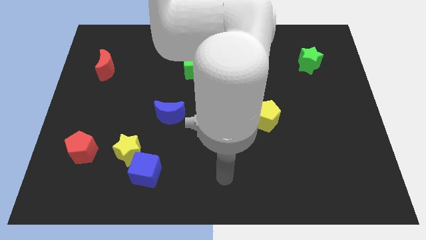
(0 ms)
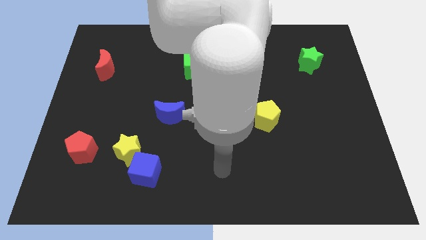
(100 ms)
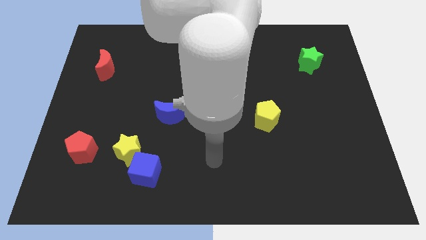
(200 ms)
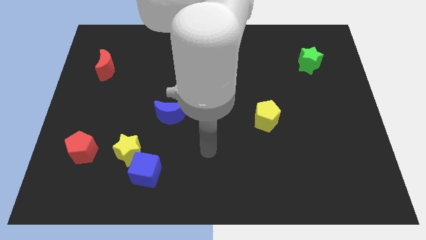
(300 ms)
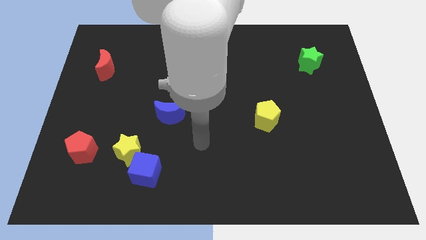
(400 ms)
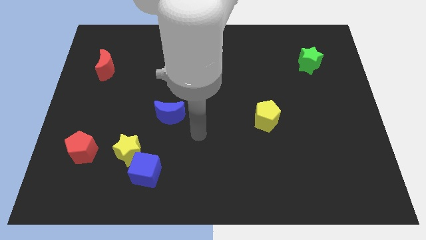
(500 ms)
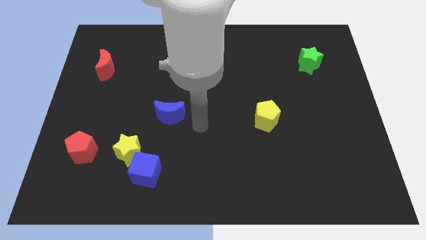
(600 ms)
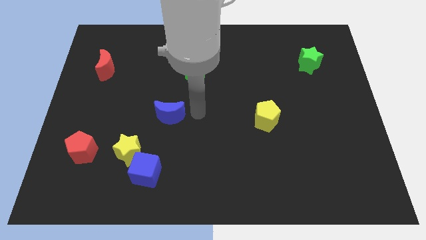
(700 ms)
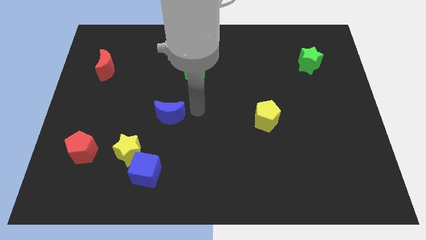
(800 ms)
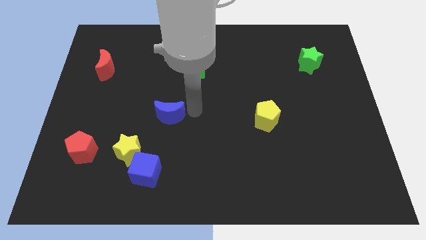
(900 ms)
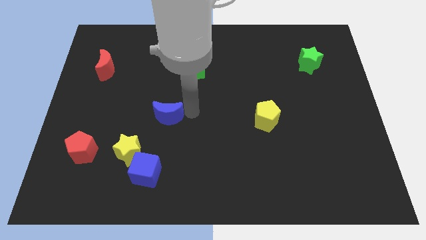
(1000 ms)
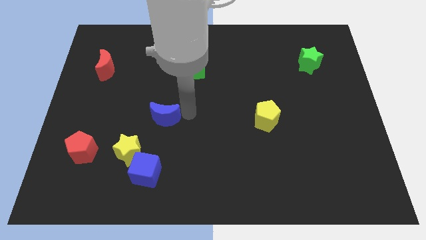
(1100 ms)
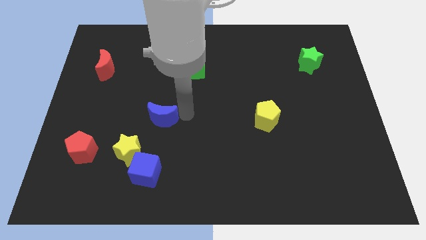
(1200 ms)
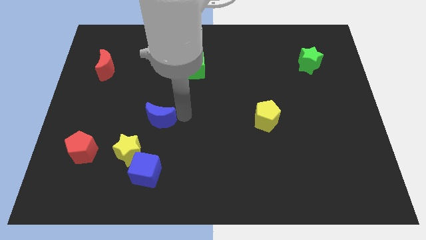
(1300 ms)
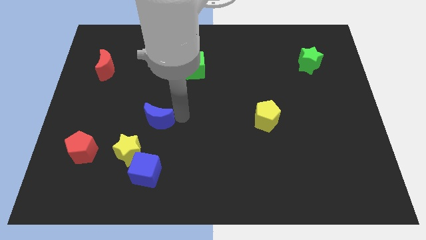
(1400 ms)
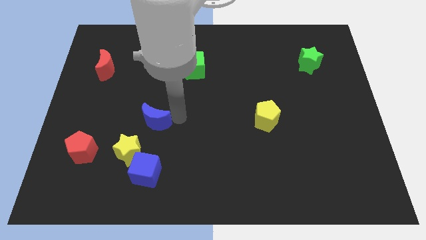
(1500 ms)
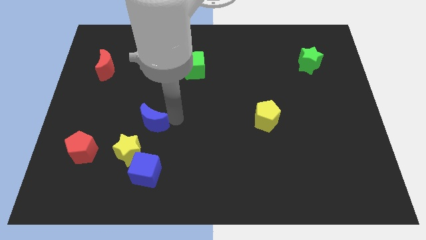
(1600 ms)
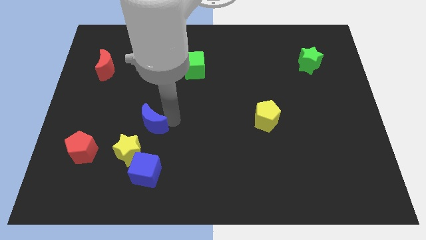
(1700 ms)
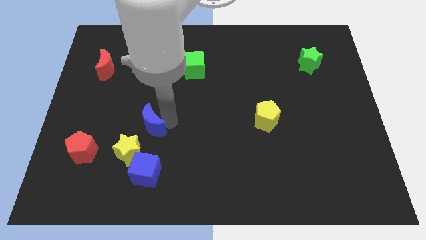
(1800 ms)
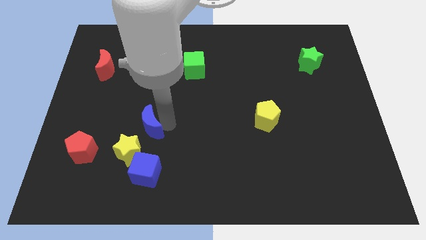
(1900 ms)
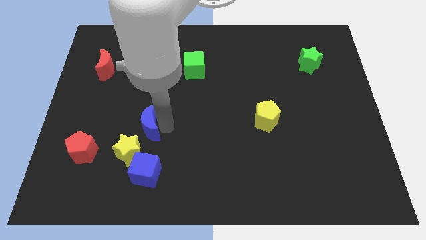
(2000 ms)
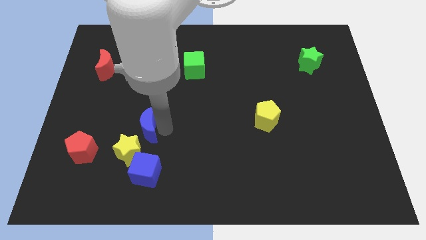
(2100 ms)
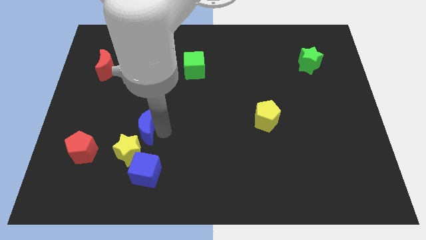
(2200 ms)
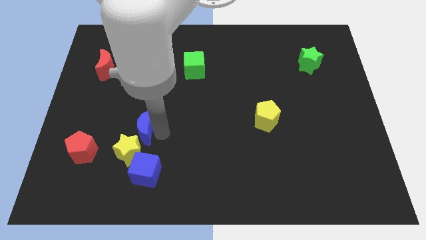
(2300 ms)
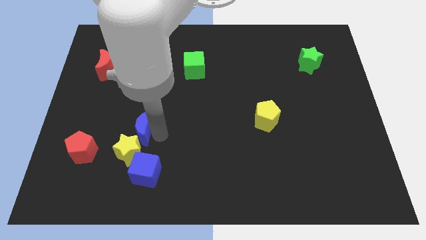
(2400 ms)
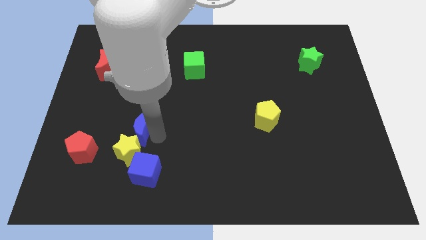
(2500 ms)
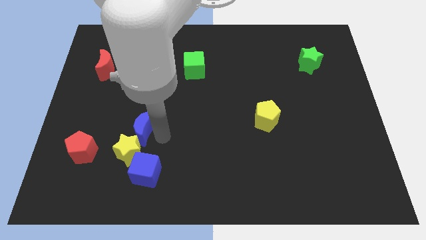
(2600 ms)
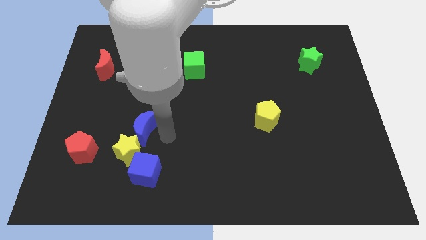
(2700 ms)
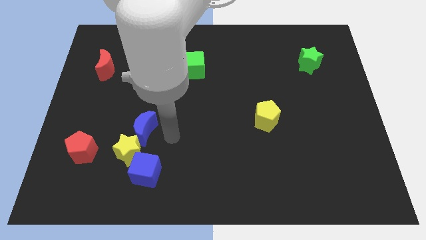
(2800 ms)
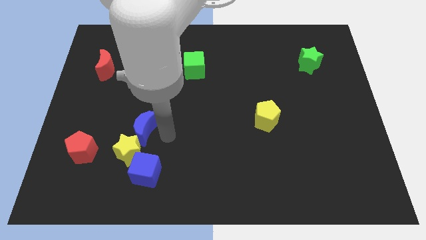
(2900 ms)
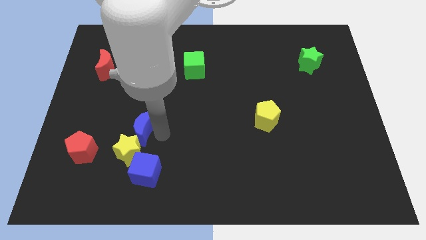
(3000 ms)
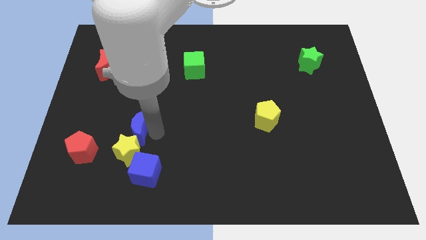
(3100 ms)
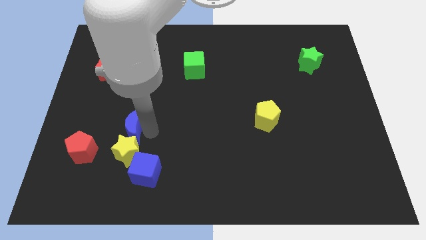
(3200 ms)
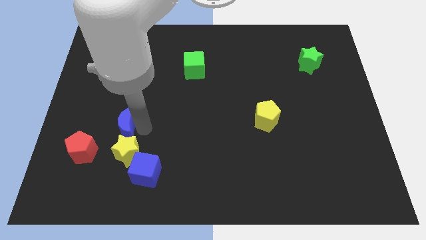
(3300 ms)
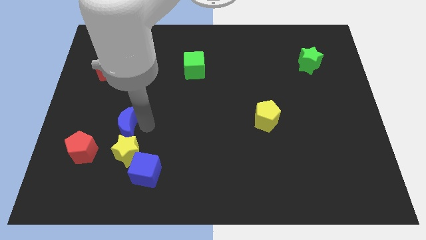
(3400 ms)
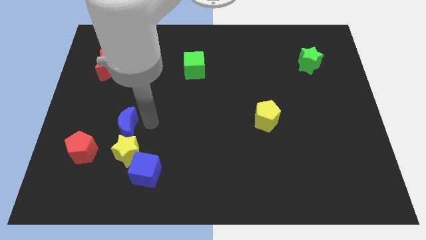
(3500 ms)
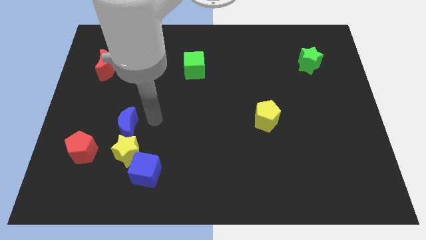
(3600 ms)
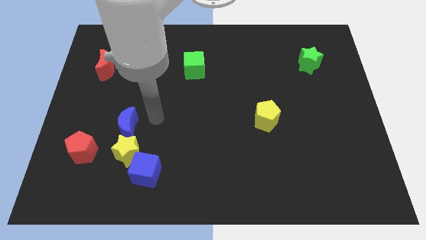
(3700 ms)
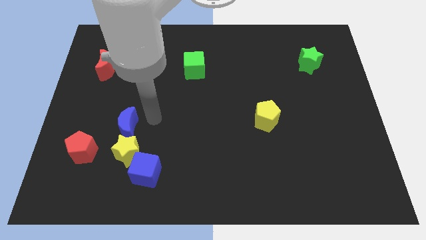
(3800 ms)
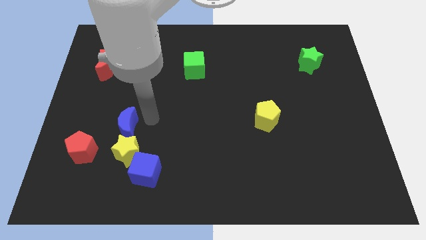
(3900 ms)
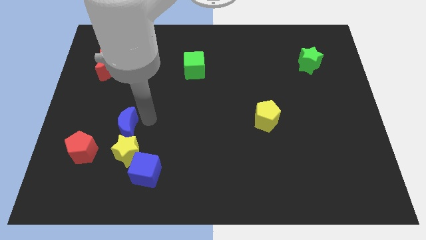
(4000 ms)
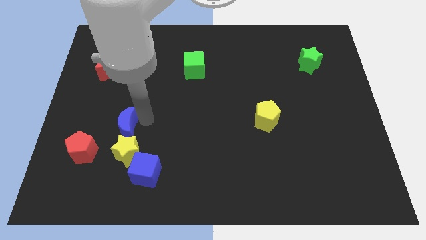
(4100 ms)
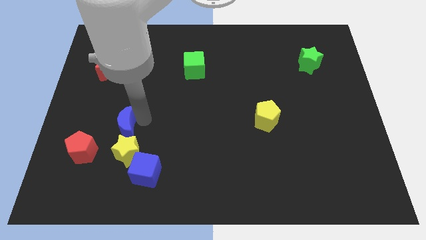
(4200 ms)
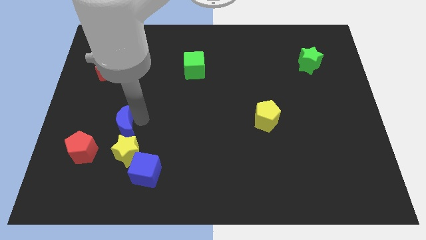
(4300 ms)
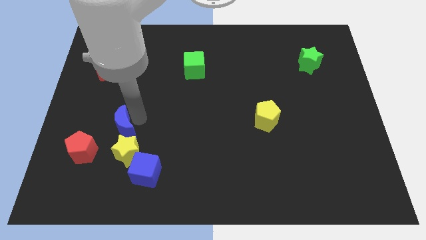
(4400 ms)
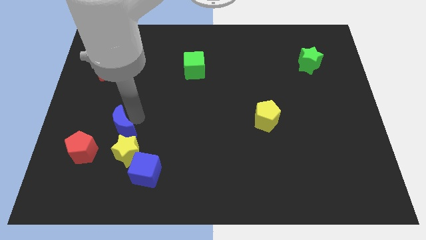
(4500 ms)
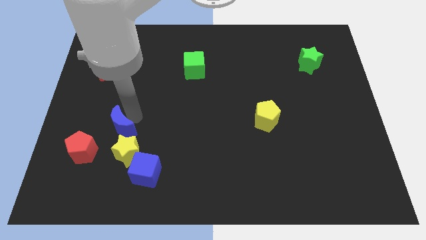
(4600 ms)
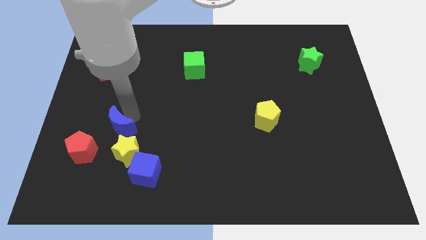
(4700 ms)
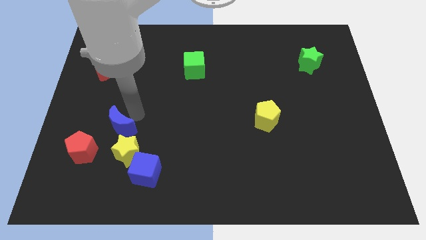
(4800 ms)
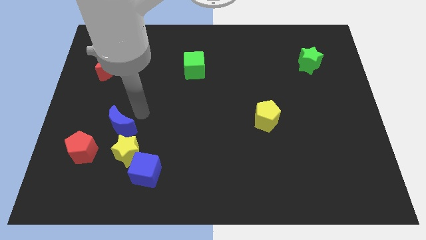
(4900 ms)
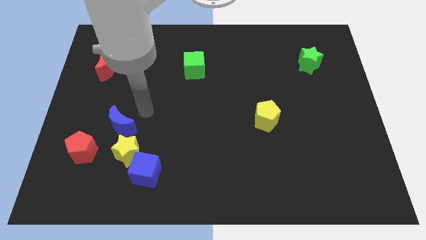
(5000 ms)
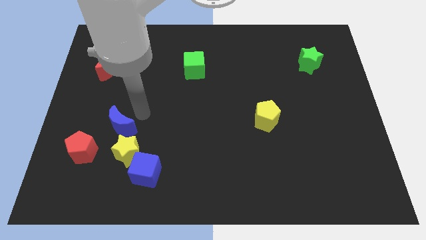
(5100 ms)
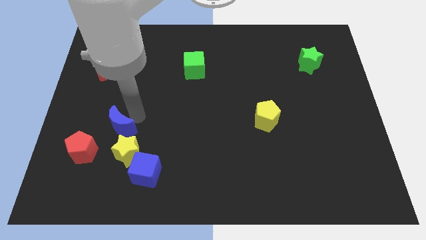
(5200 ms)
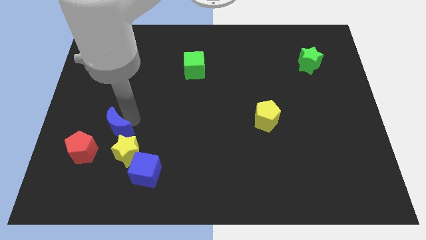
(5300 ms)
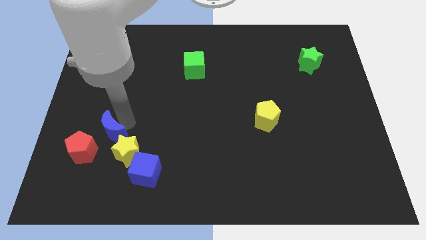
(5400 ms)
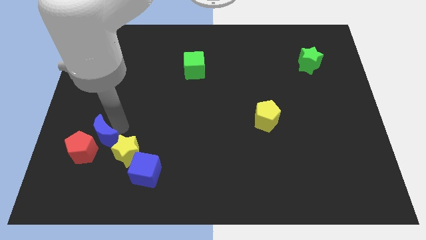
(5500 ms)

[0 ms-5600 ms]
move the blue moon next to the red pentagon

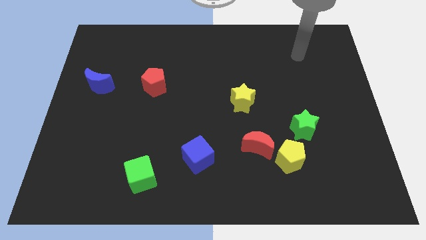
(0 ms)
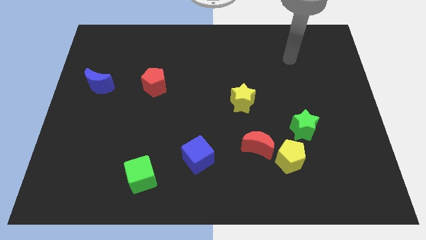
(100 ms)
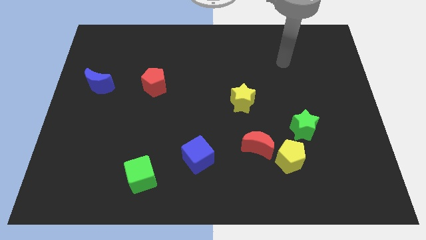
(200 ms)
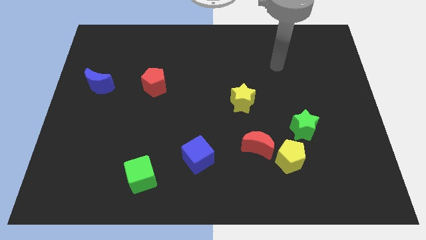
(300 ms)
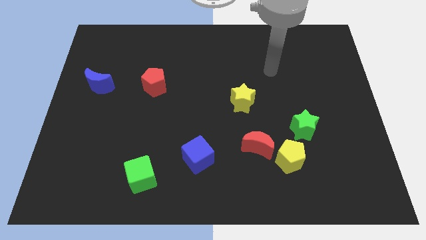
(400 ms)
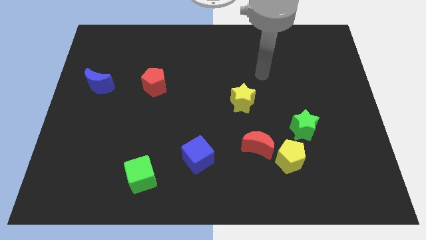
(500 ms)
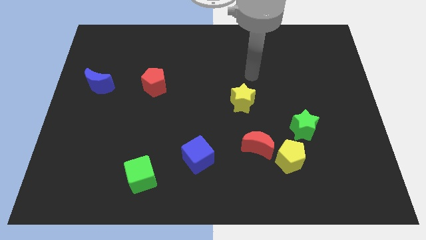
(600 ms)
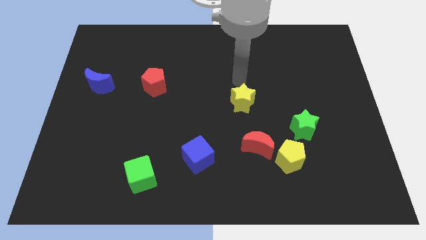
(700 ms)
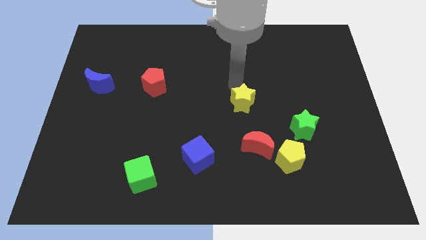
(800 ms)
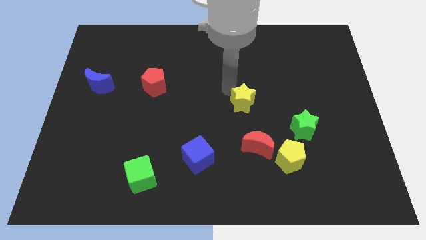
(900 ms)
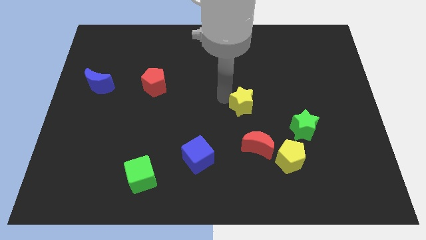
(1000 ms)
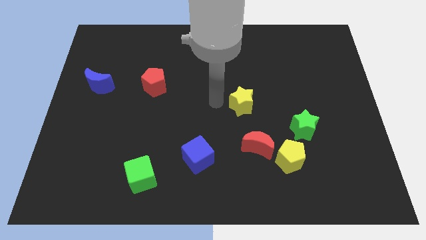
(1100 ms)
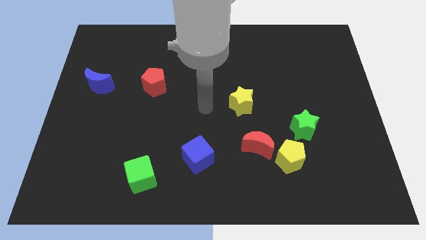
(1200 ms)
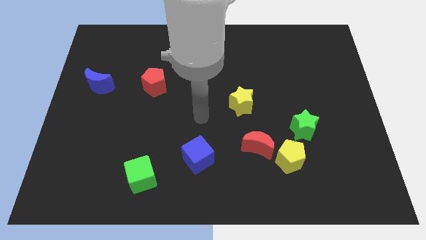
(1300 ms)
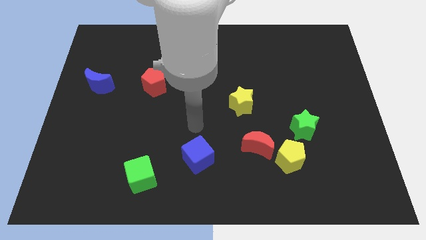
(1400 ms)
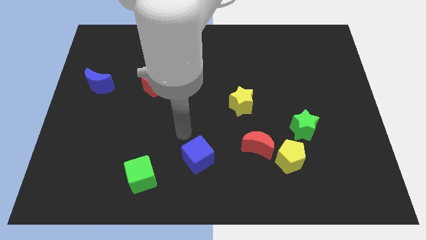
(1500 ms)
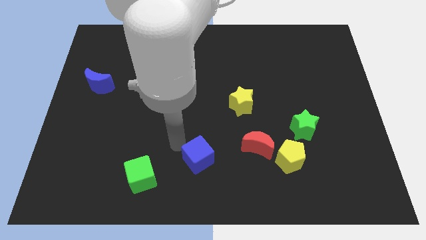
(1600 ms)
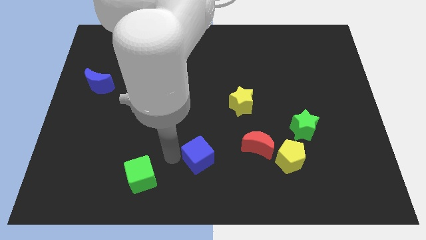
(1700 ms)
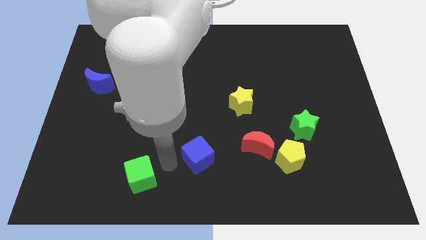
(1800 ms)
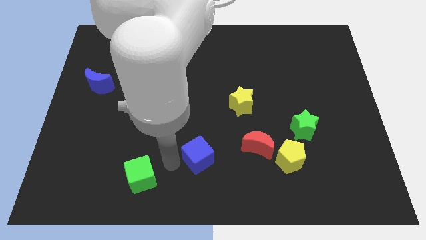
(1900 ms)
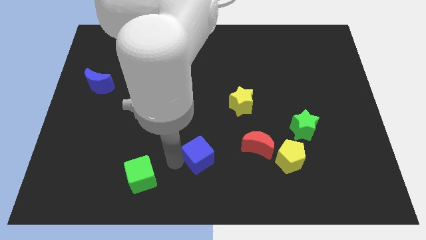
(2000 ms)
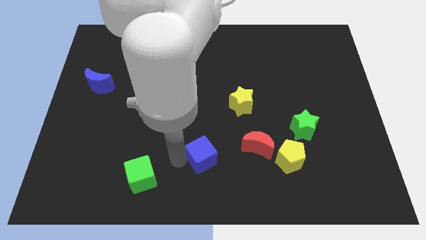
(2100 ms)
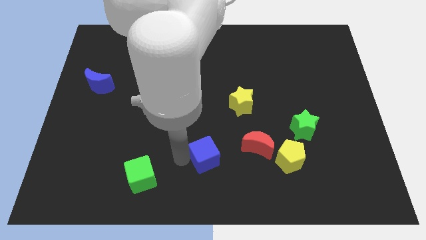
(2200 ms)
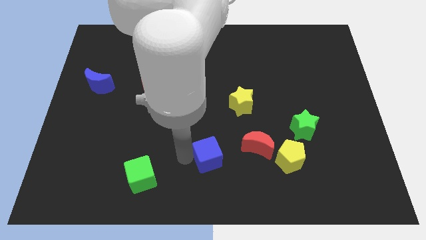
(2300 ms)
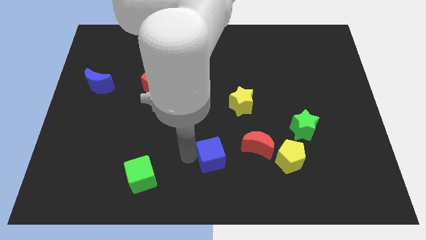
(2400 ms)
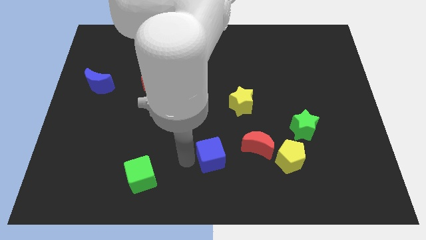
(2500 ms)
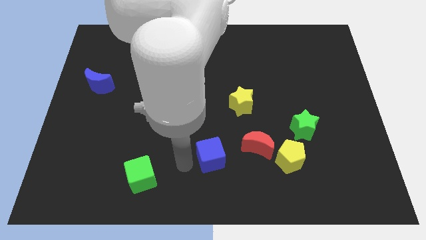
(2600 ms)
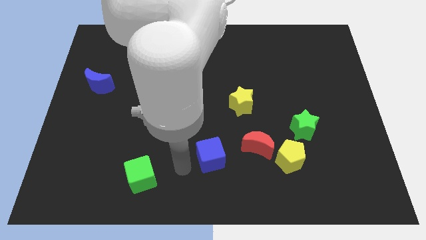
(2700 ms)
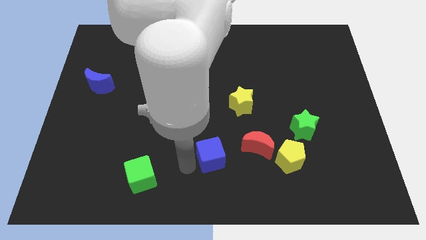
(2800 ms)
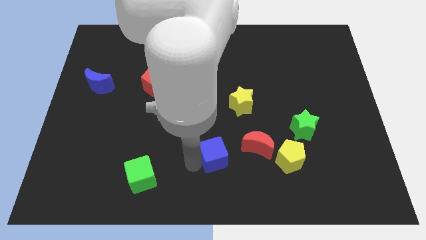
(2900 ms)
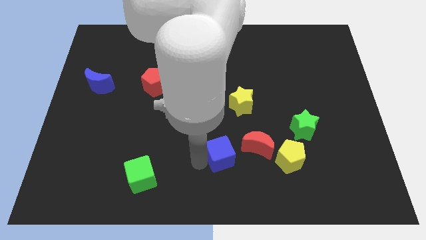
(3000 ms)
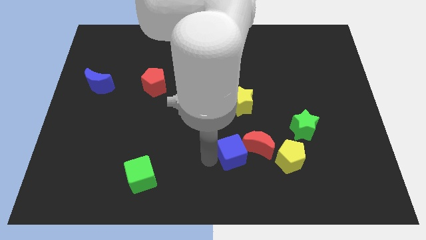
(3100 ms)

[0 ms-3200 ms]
move the blue cube next to the red moon
